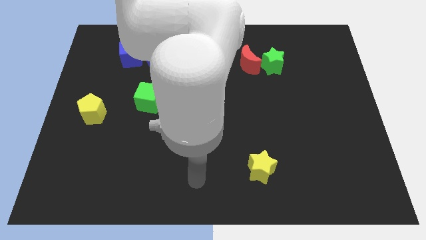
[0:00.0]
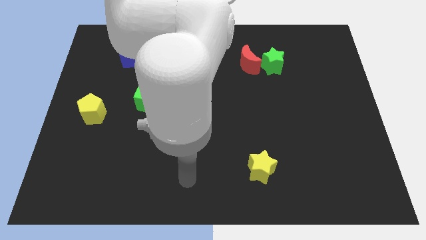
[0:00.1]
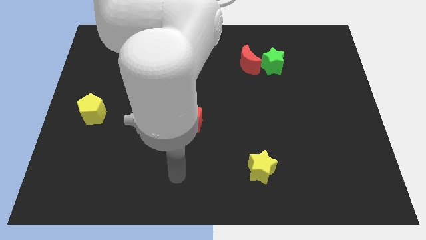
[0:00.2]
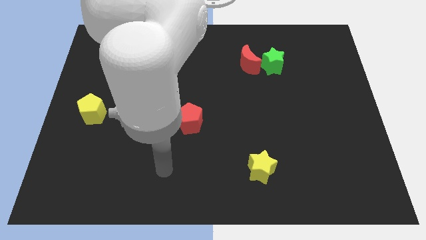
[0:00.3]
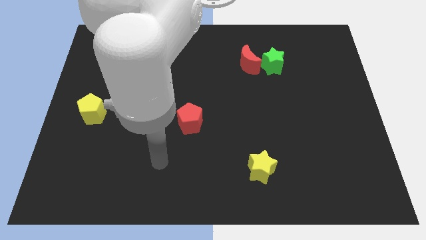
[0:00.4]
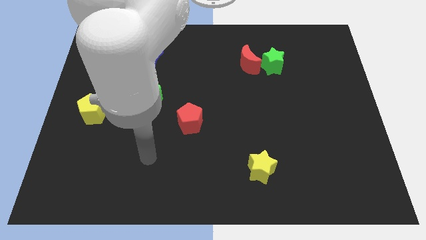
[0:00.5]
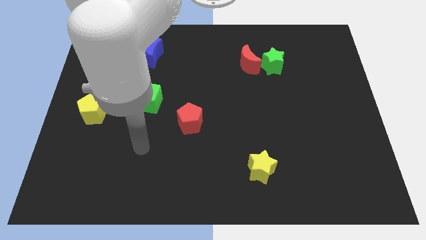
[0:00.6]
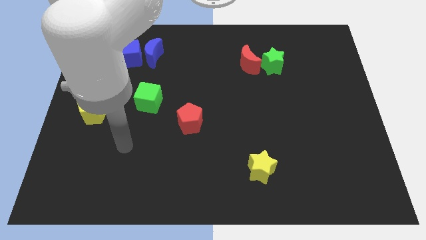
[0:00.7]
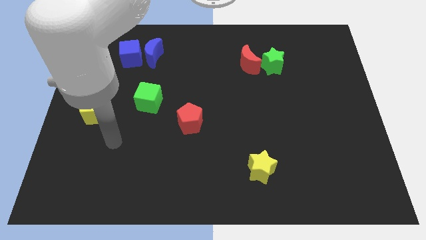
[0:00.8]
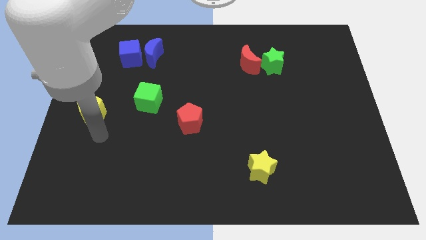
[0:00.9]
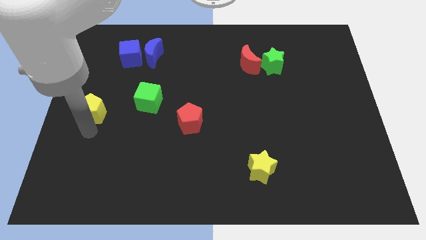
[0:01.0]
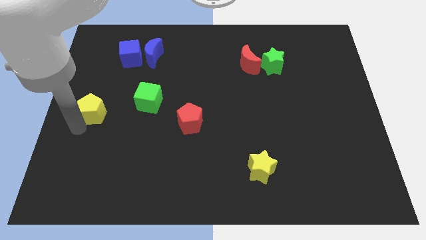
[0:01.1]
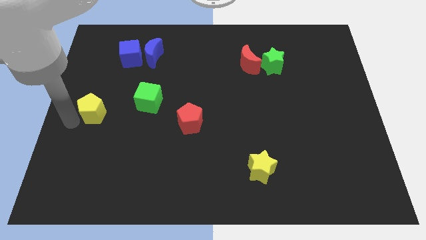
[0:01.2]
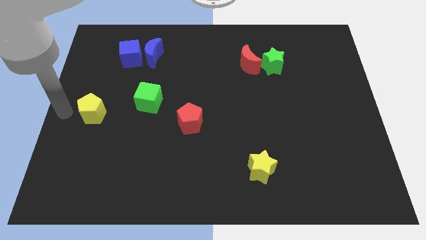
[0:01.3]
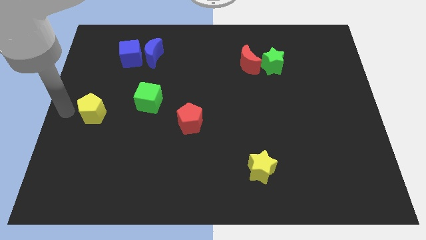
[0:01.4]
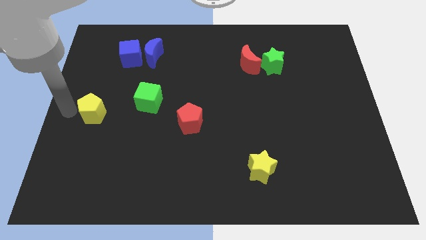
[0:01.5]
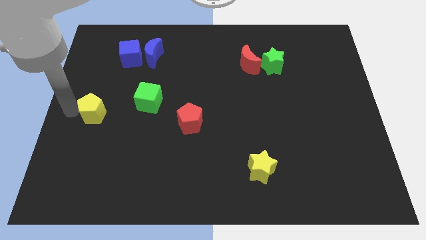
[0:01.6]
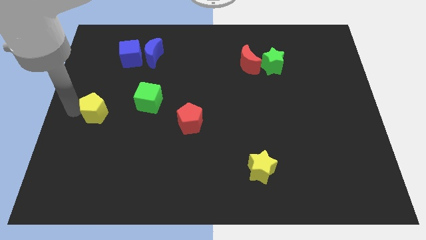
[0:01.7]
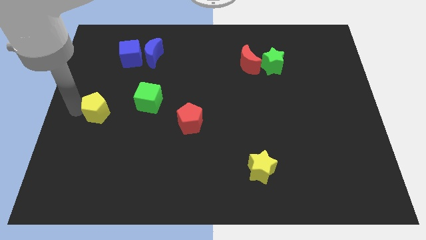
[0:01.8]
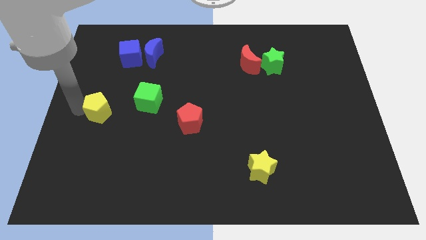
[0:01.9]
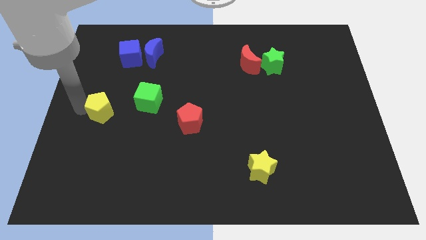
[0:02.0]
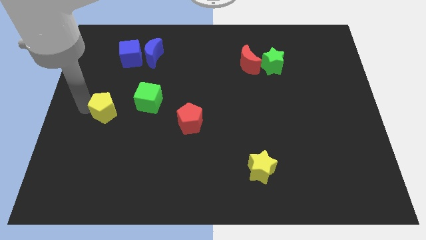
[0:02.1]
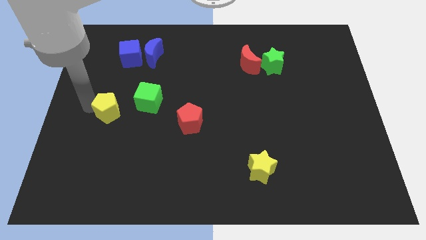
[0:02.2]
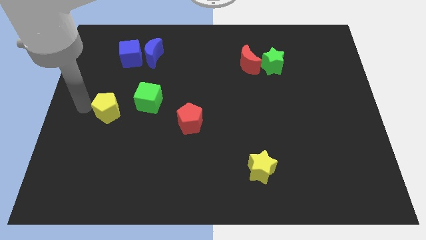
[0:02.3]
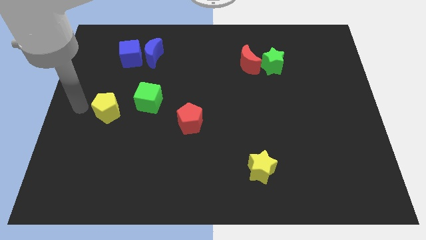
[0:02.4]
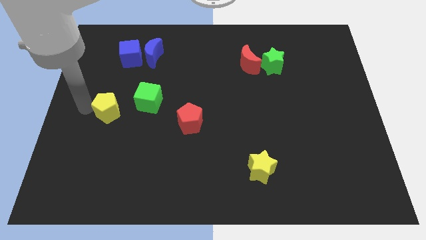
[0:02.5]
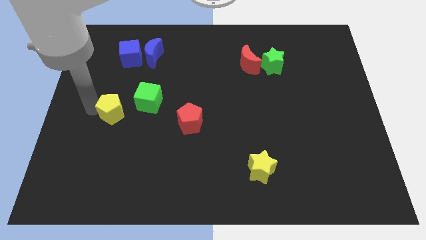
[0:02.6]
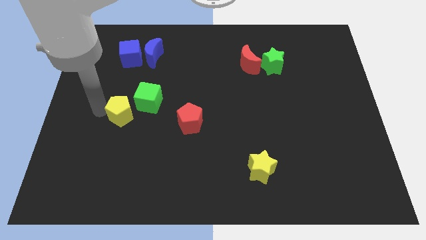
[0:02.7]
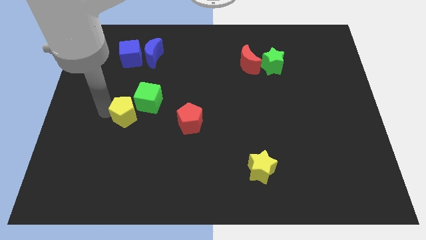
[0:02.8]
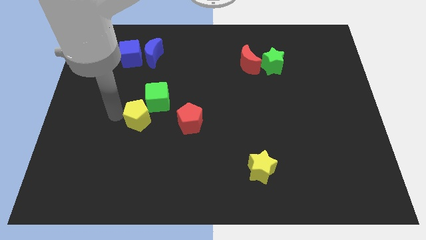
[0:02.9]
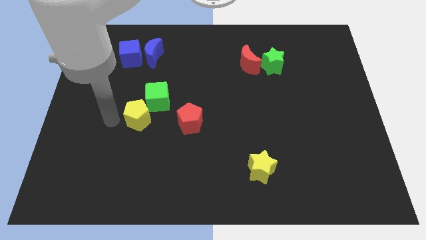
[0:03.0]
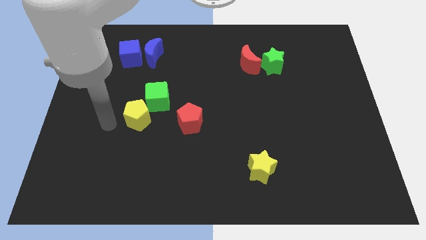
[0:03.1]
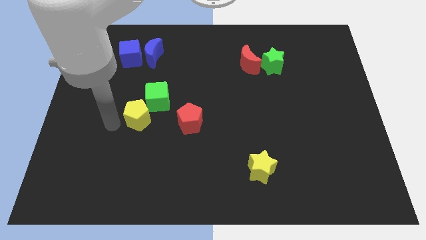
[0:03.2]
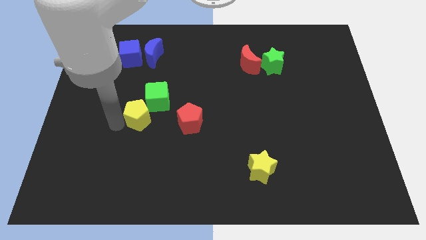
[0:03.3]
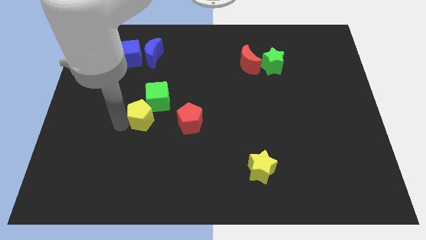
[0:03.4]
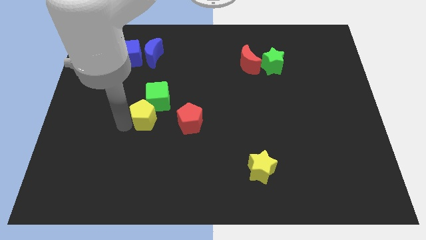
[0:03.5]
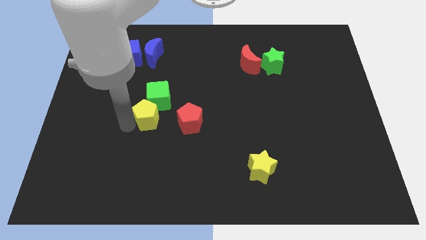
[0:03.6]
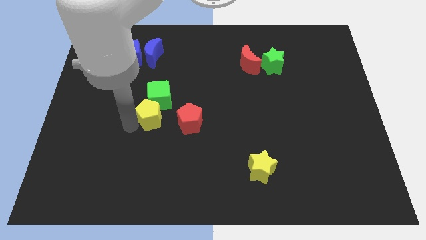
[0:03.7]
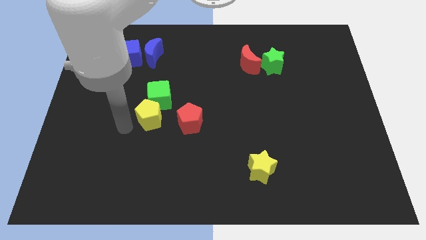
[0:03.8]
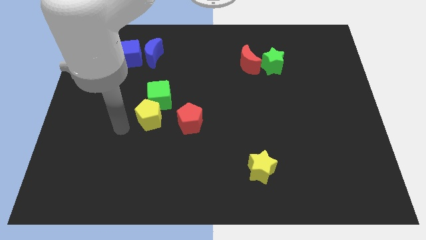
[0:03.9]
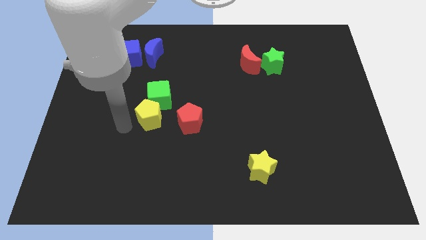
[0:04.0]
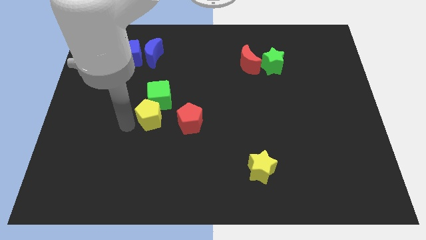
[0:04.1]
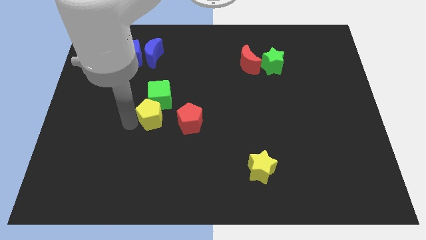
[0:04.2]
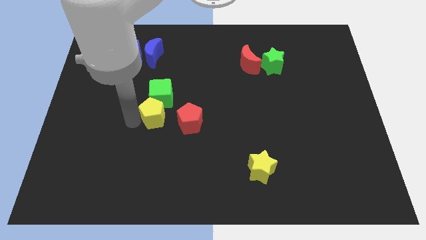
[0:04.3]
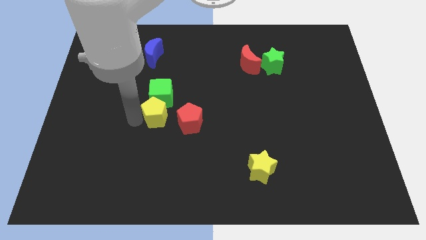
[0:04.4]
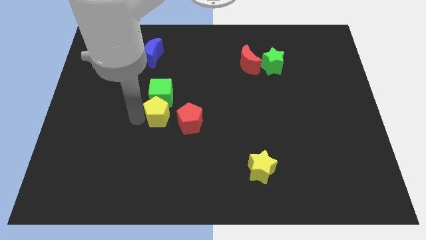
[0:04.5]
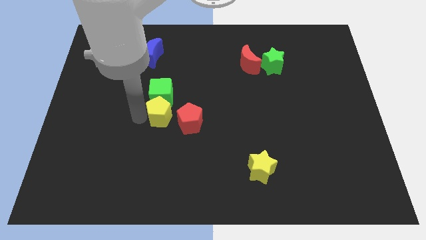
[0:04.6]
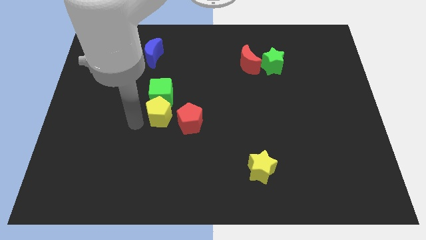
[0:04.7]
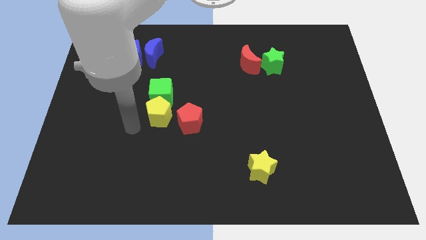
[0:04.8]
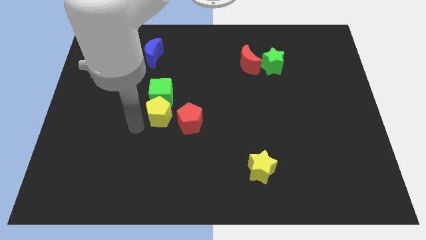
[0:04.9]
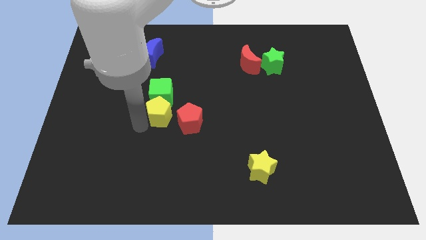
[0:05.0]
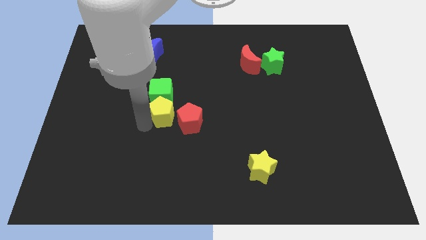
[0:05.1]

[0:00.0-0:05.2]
move the yellow pentagon to the center

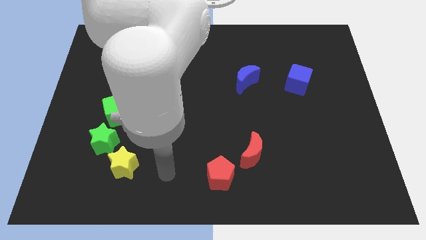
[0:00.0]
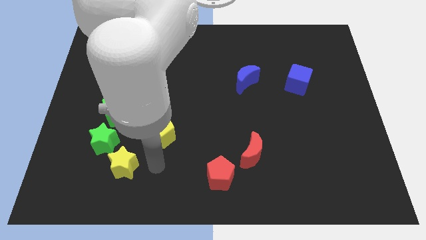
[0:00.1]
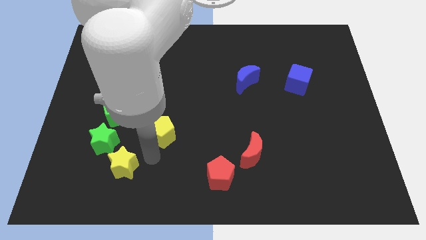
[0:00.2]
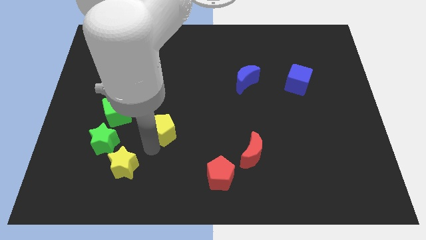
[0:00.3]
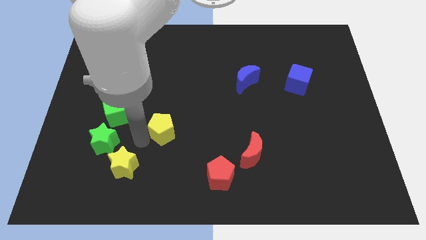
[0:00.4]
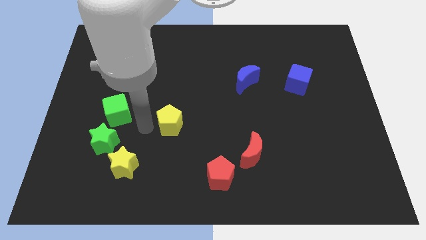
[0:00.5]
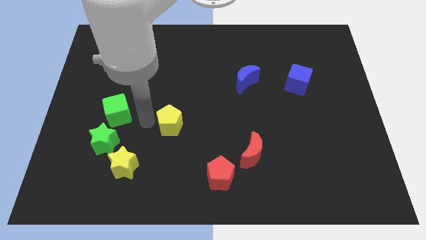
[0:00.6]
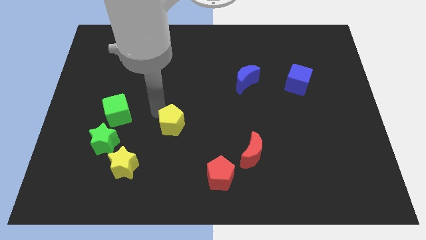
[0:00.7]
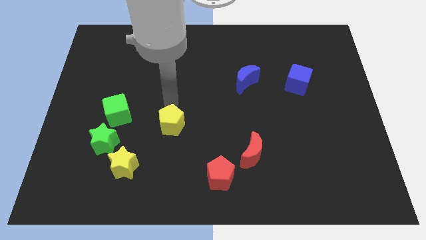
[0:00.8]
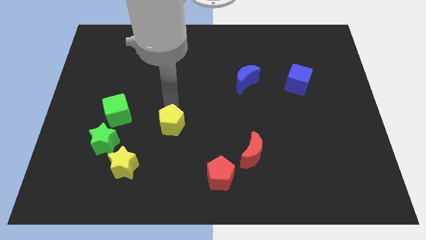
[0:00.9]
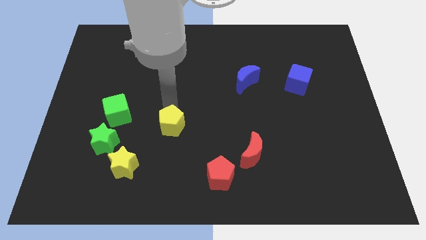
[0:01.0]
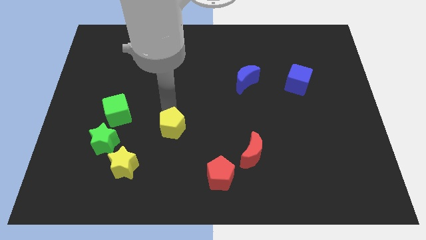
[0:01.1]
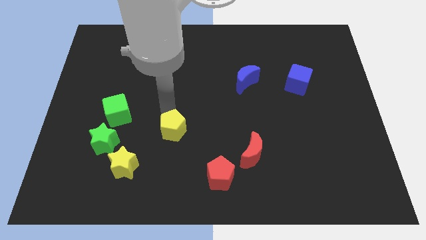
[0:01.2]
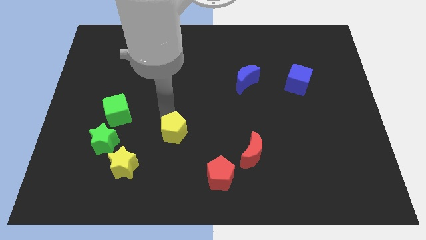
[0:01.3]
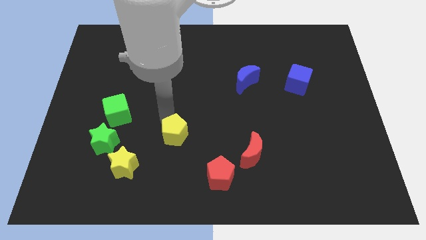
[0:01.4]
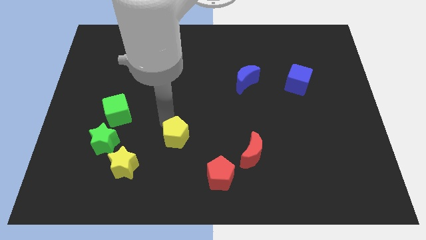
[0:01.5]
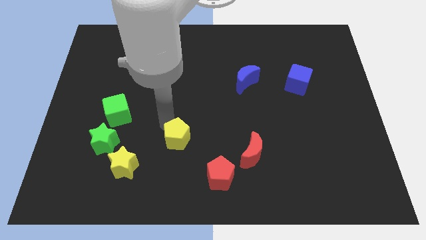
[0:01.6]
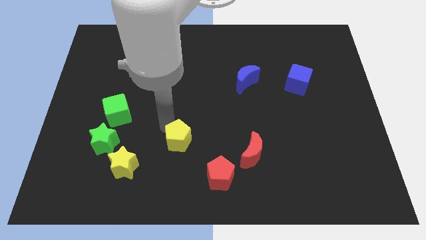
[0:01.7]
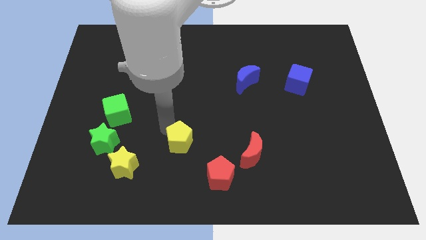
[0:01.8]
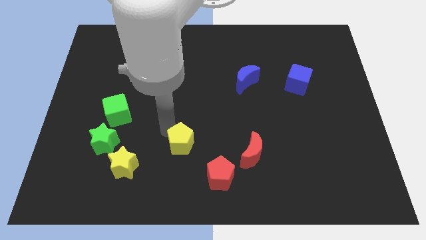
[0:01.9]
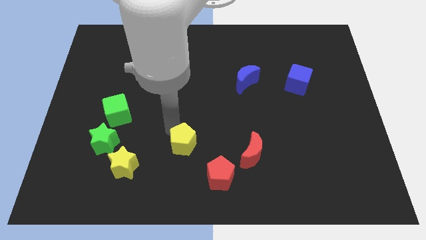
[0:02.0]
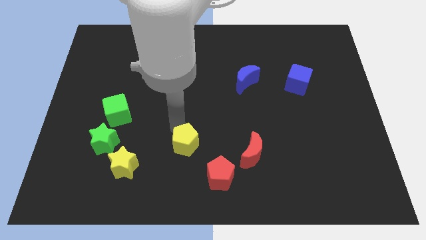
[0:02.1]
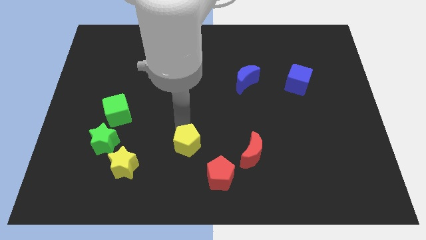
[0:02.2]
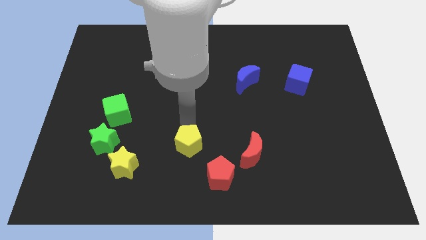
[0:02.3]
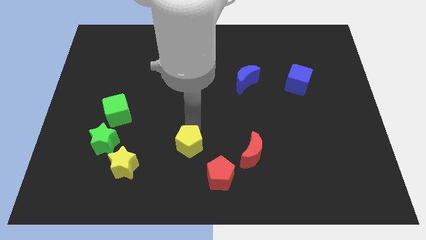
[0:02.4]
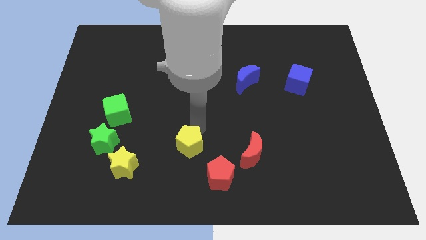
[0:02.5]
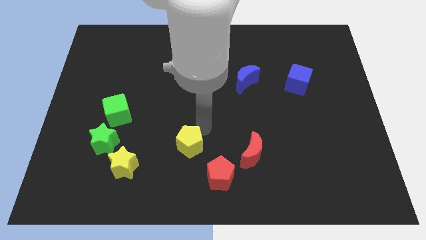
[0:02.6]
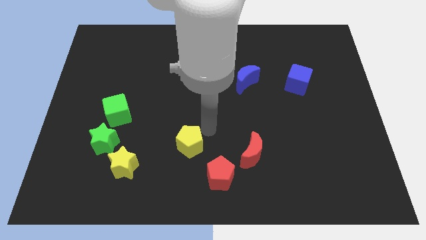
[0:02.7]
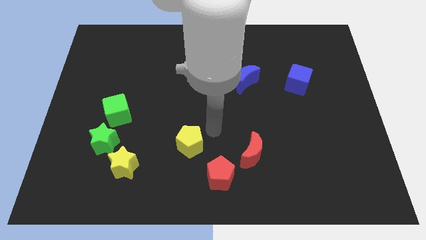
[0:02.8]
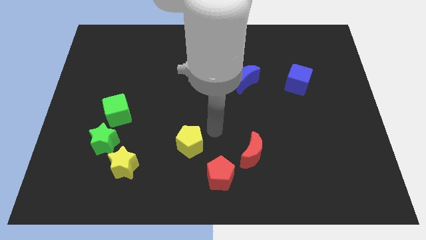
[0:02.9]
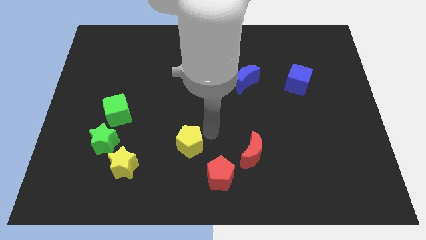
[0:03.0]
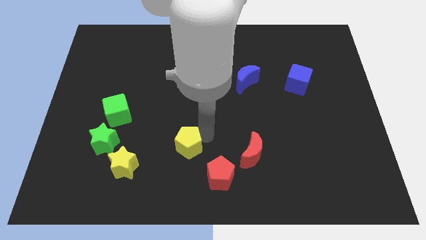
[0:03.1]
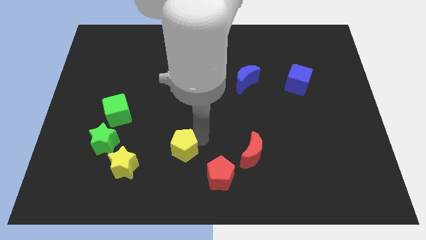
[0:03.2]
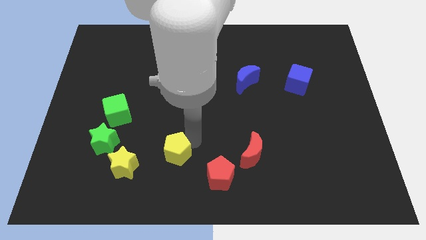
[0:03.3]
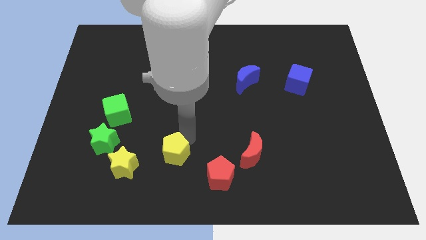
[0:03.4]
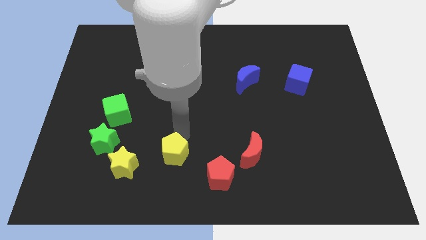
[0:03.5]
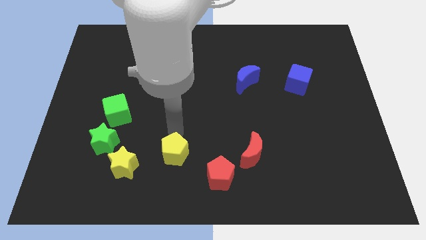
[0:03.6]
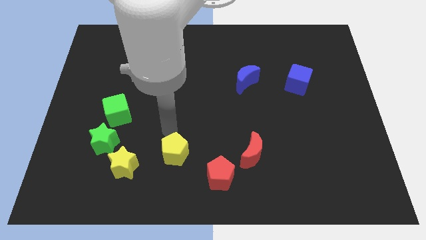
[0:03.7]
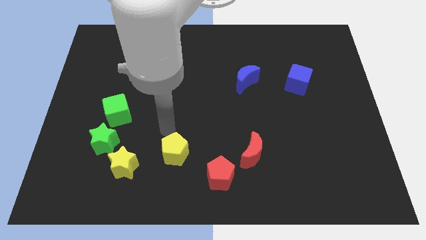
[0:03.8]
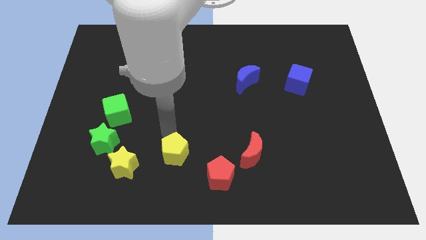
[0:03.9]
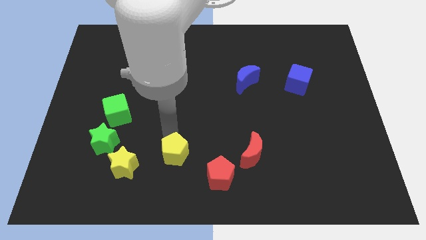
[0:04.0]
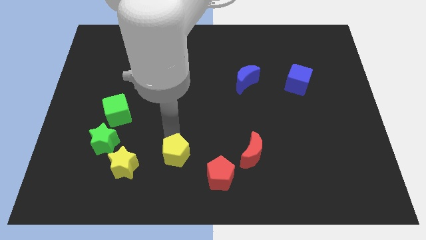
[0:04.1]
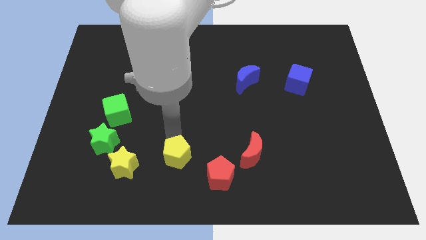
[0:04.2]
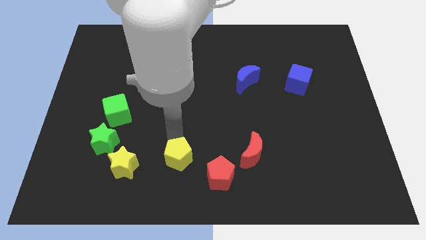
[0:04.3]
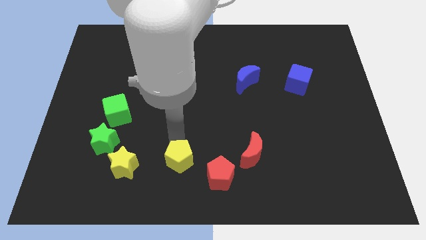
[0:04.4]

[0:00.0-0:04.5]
push the yellow pentagon to the bottom
